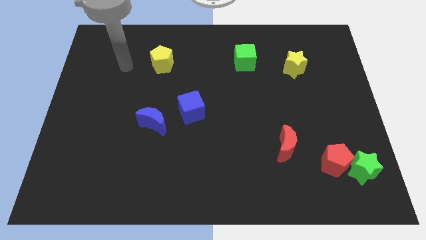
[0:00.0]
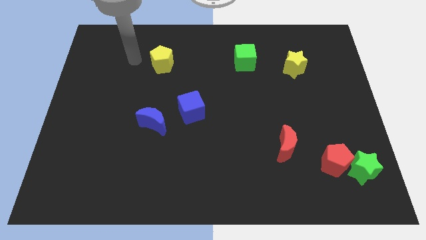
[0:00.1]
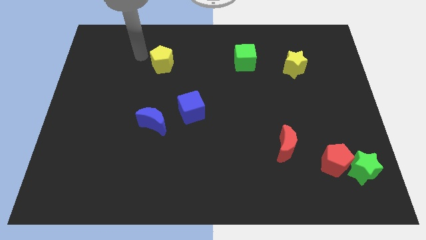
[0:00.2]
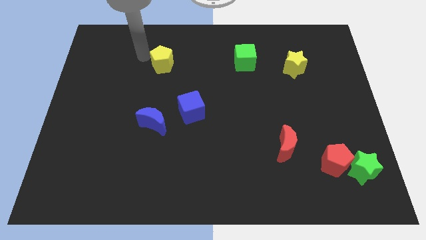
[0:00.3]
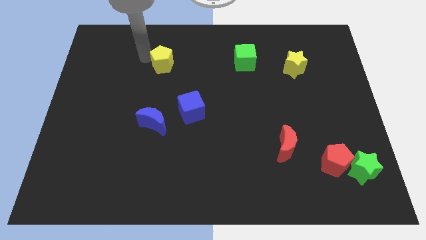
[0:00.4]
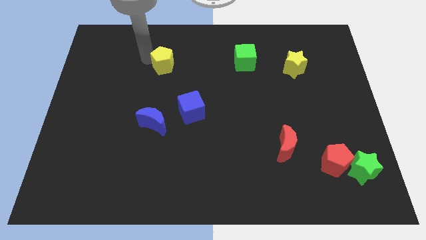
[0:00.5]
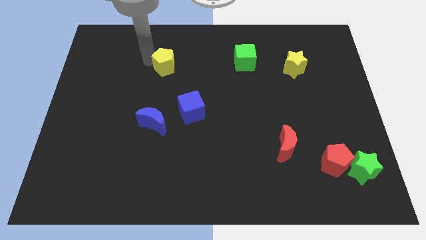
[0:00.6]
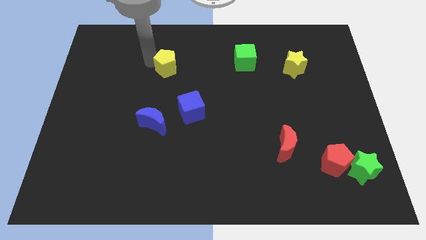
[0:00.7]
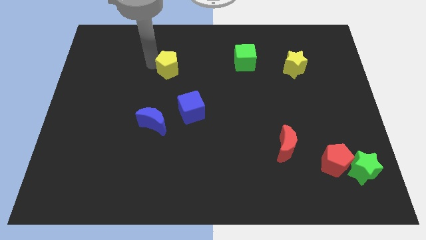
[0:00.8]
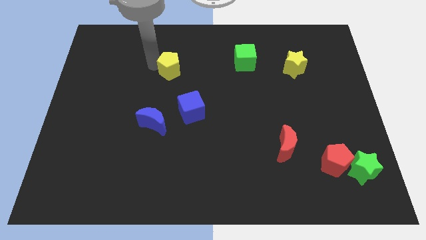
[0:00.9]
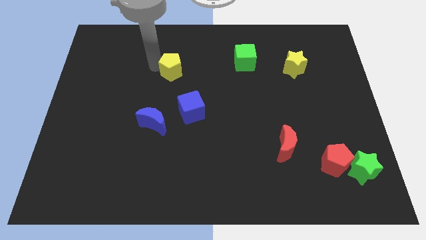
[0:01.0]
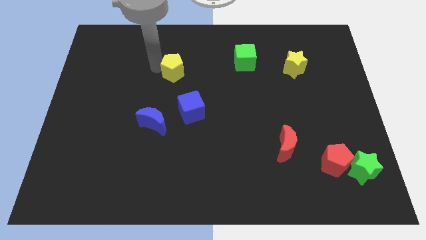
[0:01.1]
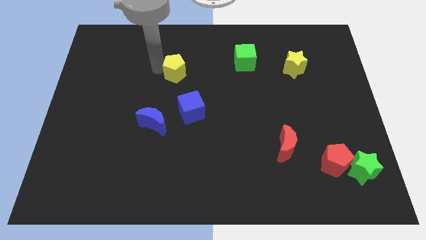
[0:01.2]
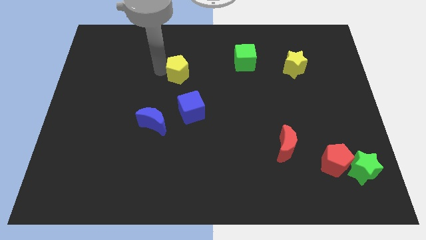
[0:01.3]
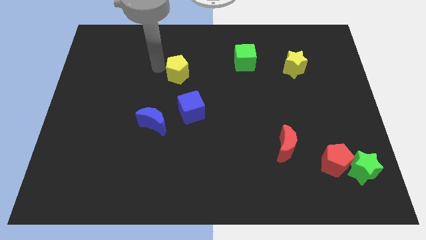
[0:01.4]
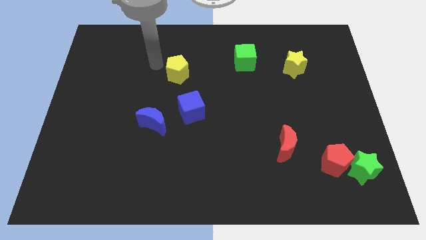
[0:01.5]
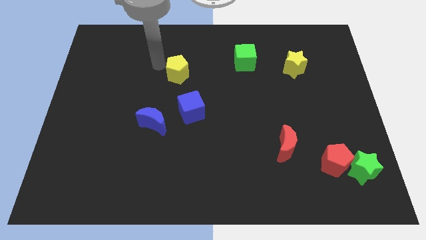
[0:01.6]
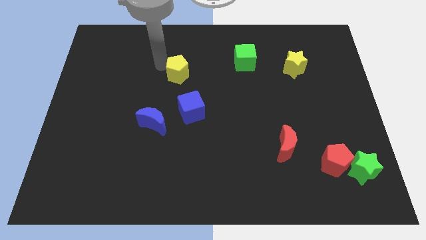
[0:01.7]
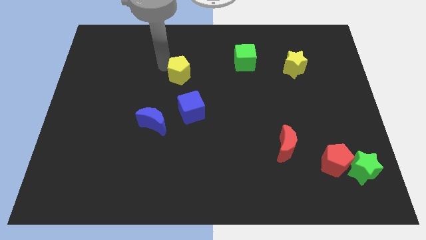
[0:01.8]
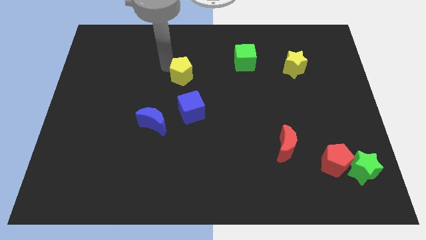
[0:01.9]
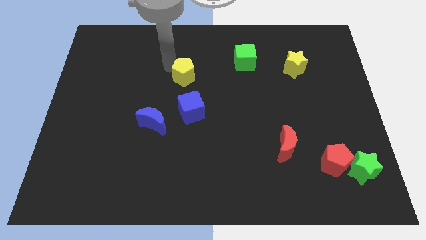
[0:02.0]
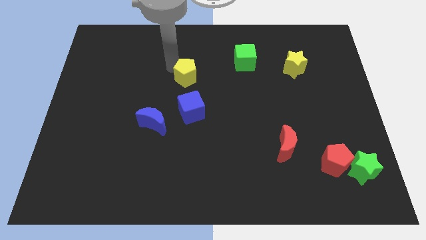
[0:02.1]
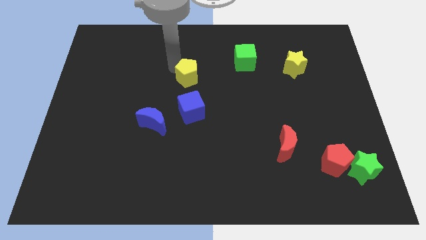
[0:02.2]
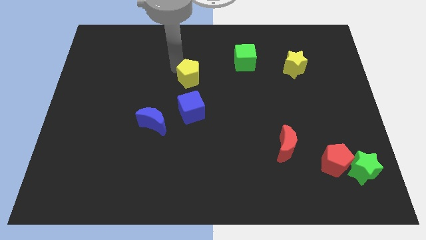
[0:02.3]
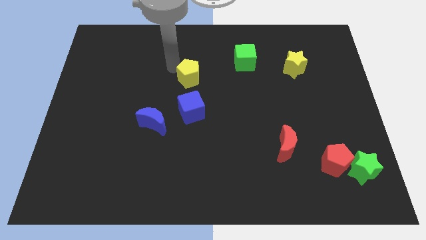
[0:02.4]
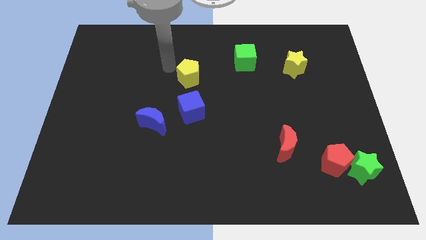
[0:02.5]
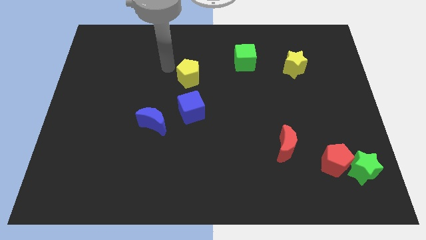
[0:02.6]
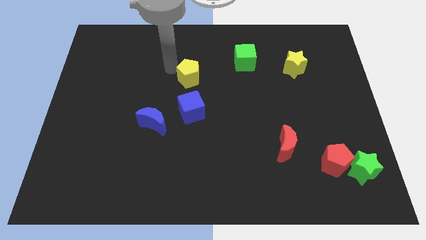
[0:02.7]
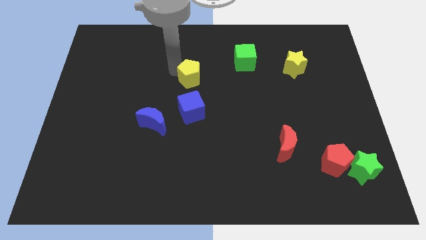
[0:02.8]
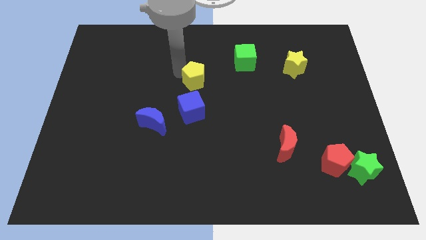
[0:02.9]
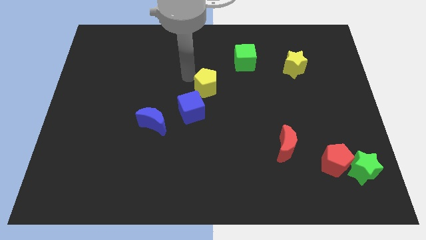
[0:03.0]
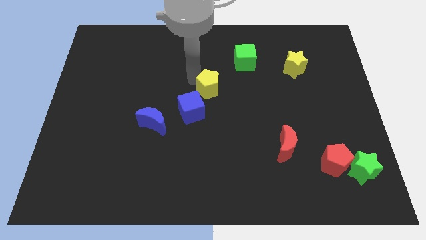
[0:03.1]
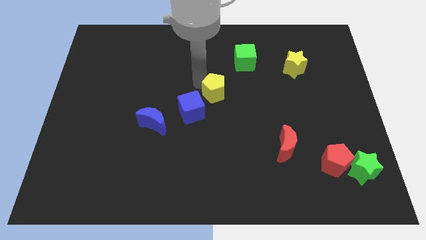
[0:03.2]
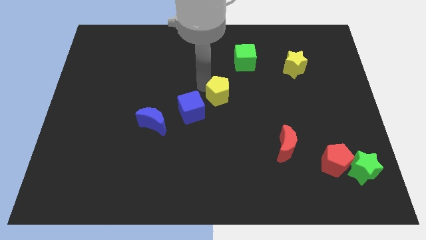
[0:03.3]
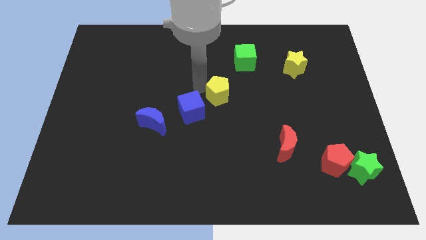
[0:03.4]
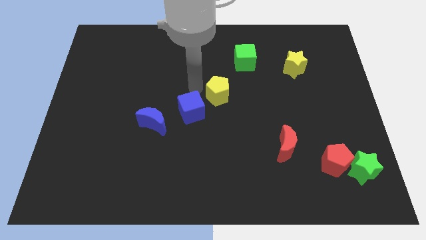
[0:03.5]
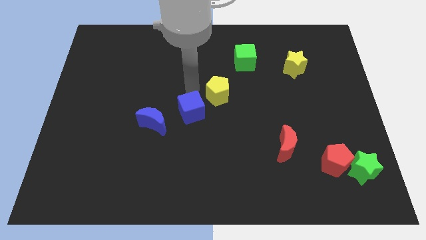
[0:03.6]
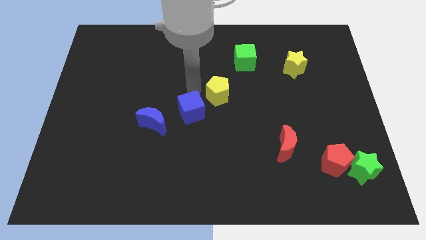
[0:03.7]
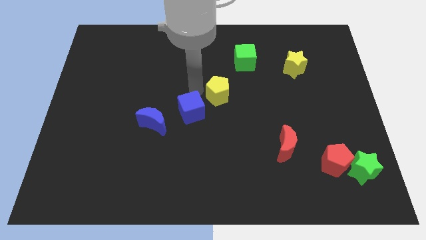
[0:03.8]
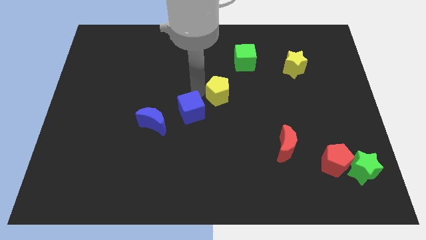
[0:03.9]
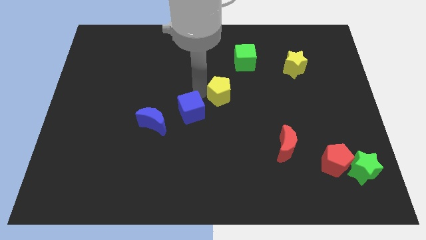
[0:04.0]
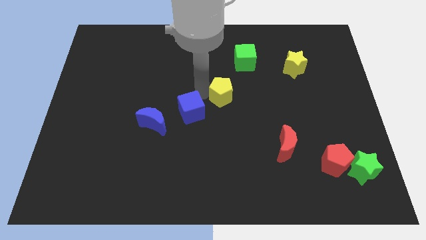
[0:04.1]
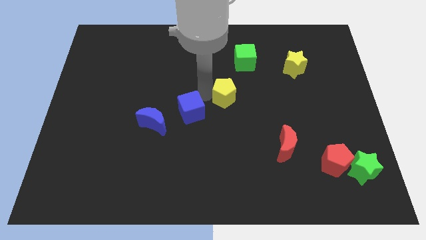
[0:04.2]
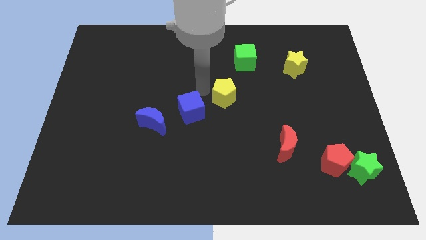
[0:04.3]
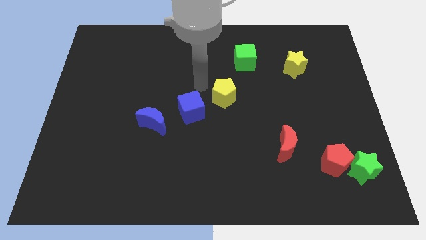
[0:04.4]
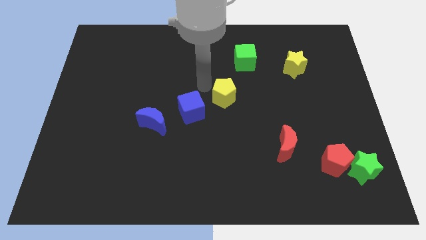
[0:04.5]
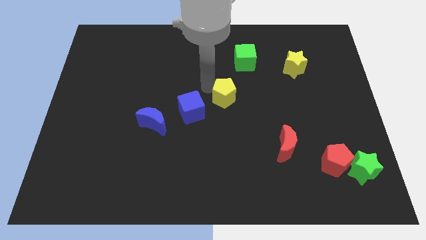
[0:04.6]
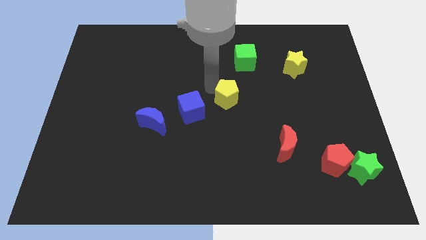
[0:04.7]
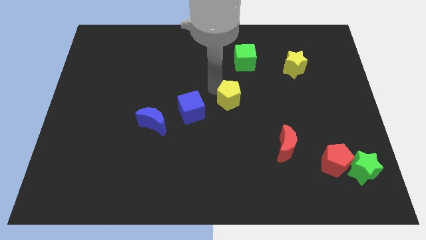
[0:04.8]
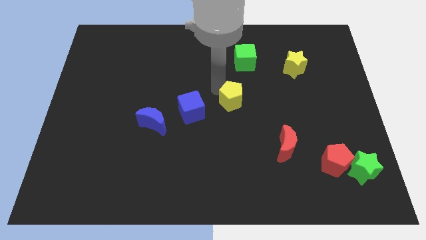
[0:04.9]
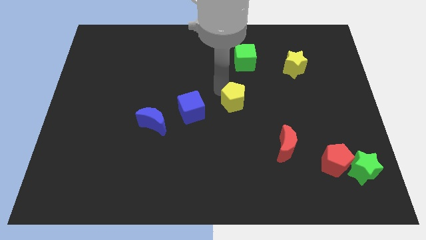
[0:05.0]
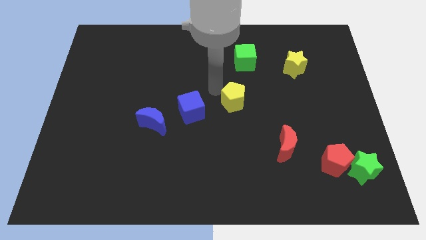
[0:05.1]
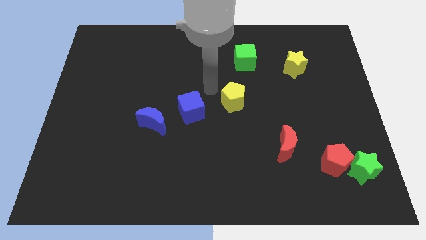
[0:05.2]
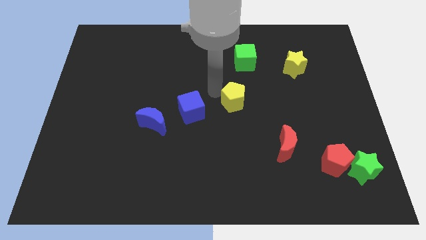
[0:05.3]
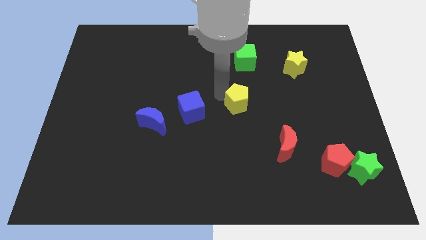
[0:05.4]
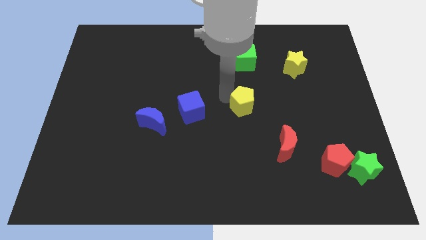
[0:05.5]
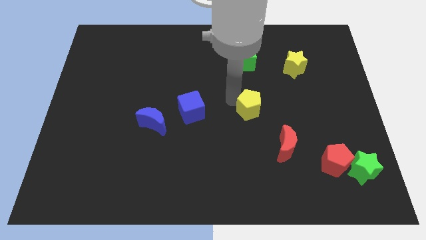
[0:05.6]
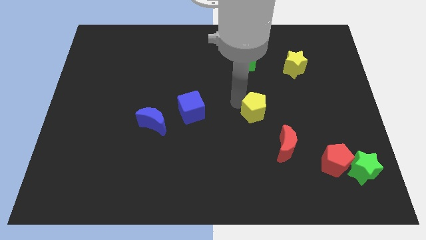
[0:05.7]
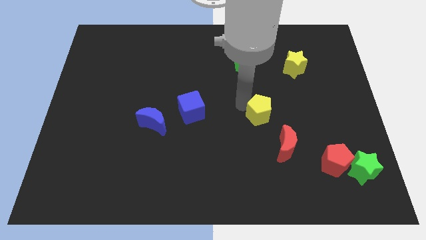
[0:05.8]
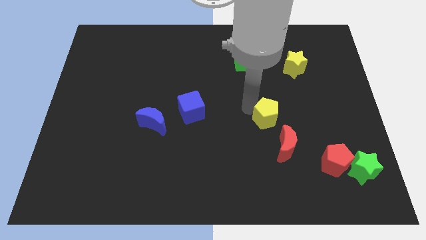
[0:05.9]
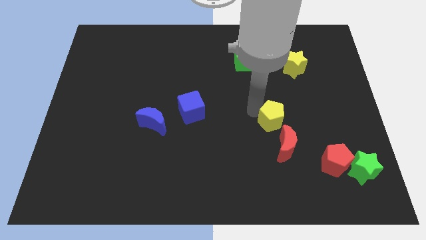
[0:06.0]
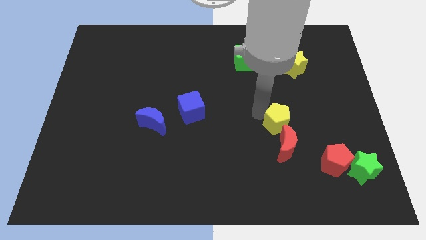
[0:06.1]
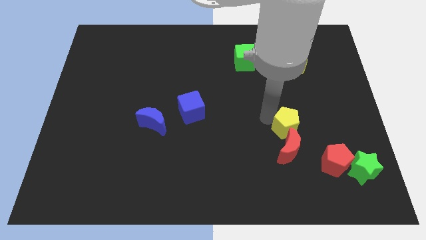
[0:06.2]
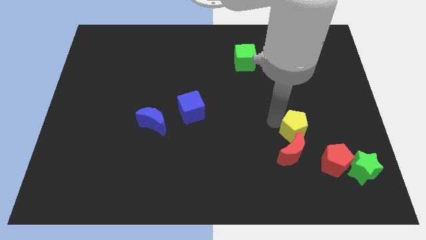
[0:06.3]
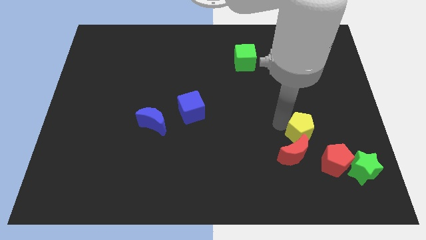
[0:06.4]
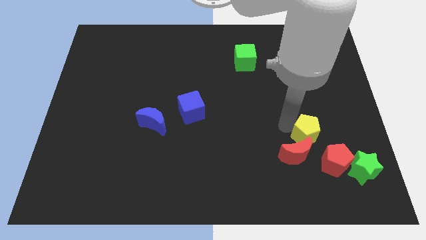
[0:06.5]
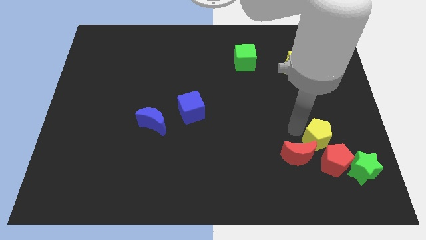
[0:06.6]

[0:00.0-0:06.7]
put the yellow pentagon right of the red moon
